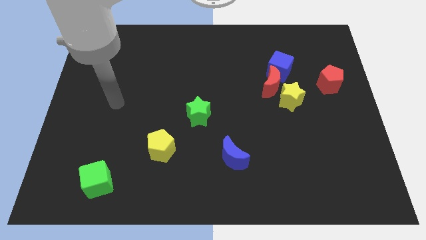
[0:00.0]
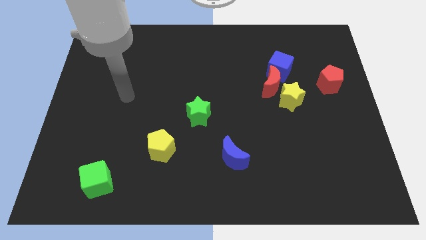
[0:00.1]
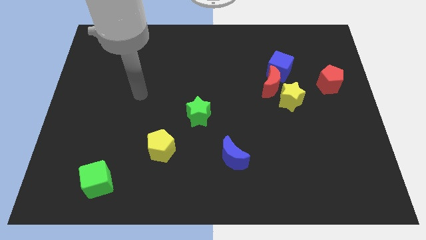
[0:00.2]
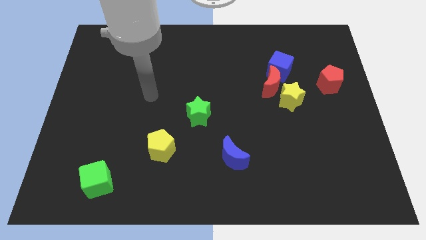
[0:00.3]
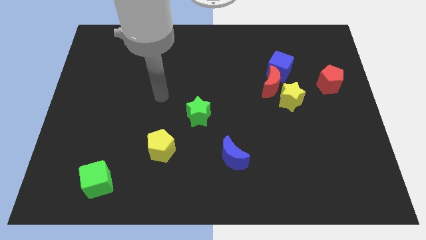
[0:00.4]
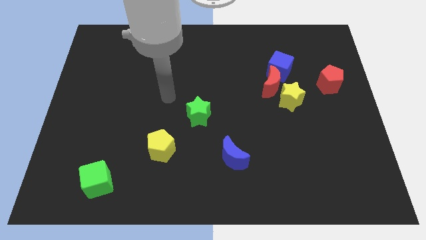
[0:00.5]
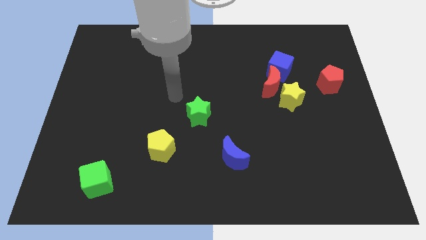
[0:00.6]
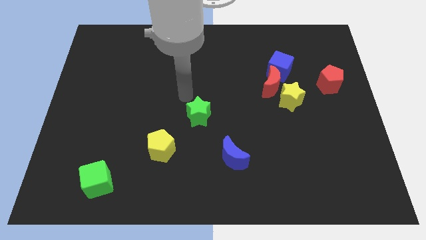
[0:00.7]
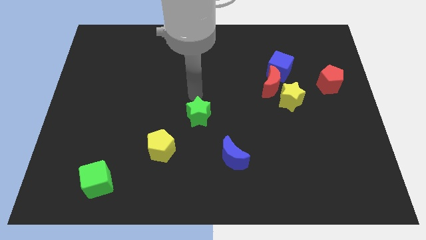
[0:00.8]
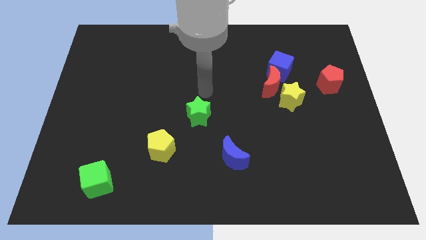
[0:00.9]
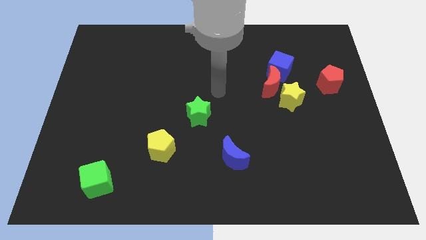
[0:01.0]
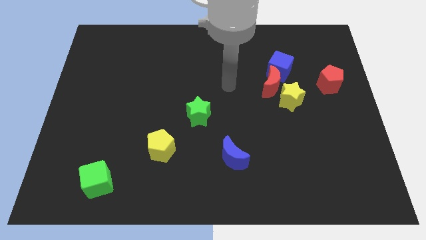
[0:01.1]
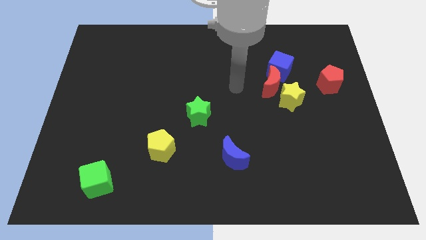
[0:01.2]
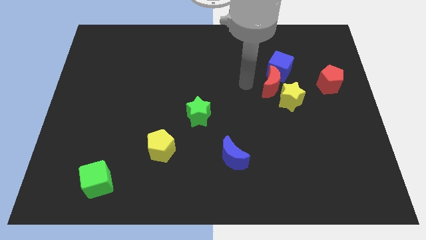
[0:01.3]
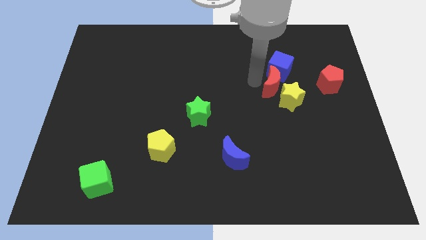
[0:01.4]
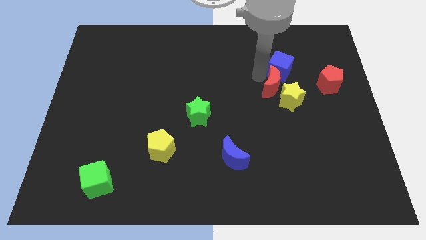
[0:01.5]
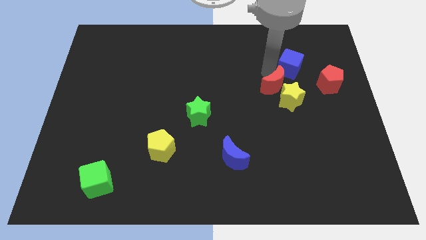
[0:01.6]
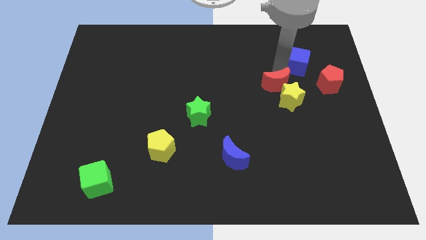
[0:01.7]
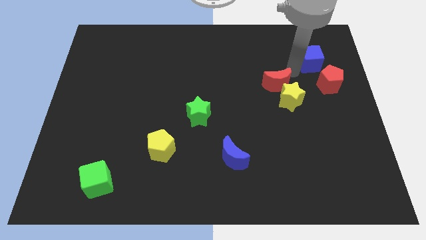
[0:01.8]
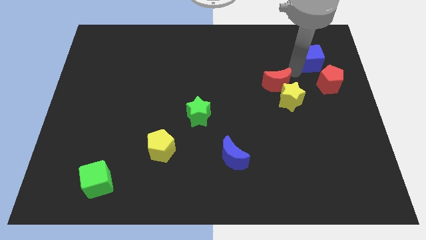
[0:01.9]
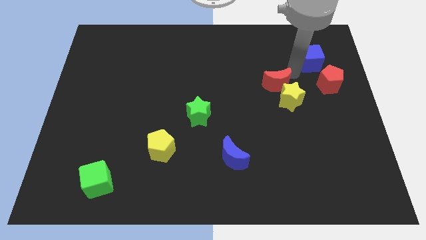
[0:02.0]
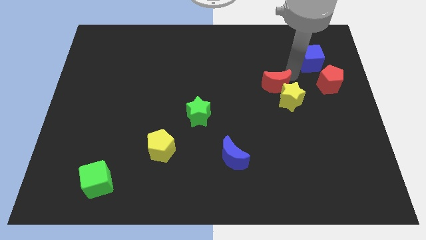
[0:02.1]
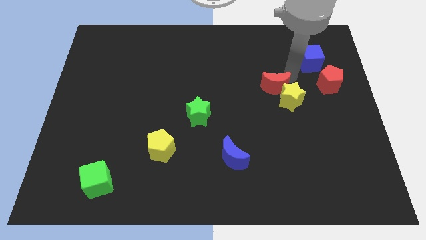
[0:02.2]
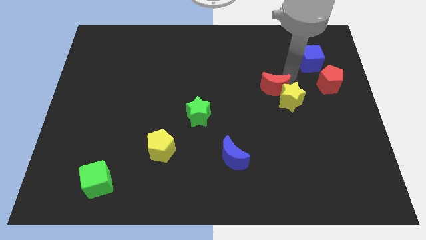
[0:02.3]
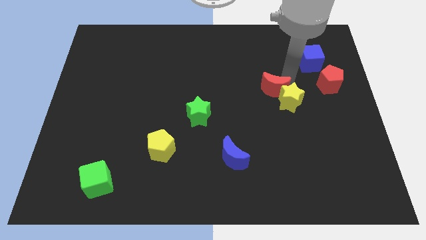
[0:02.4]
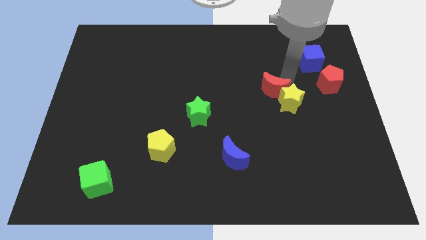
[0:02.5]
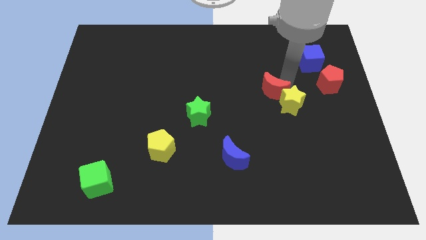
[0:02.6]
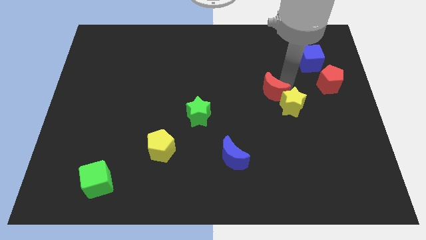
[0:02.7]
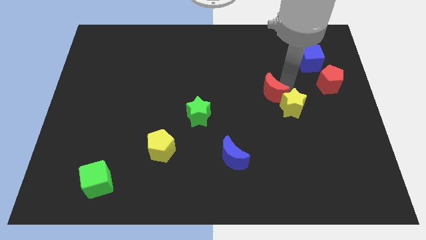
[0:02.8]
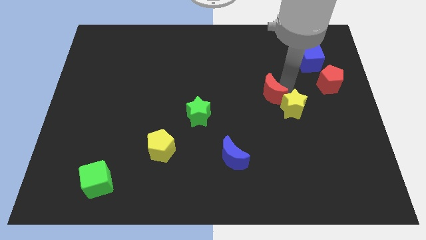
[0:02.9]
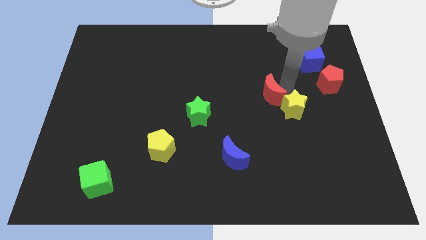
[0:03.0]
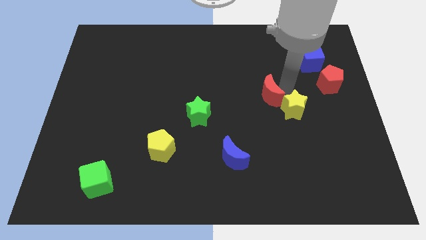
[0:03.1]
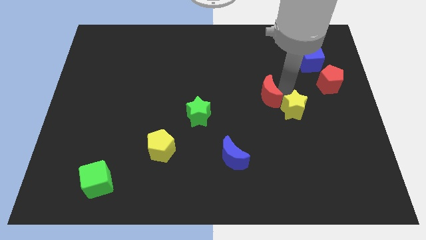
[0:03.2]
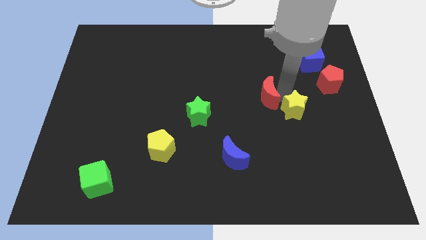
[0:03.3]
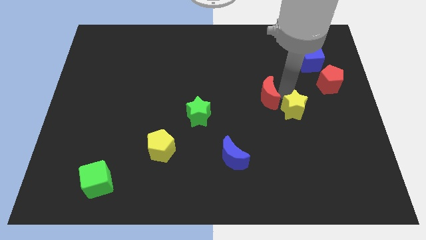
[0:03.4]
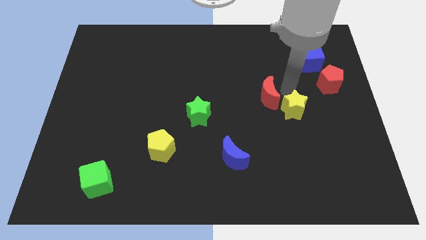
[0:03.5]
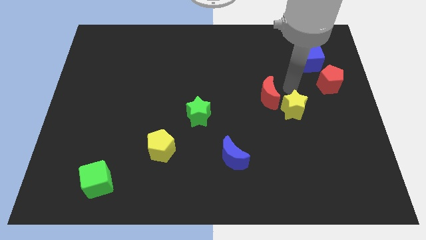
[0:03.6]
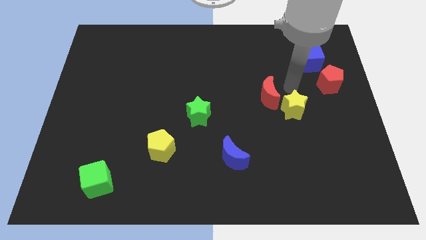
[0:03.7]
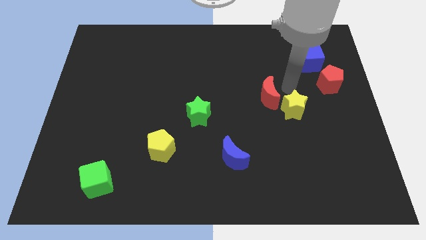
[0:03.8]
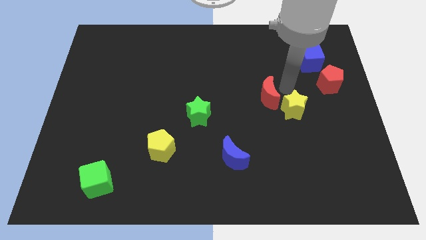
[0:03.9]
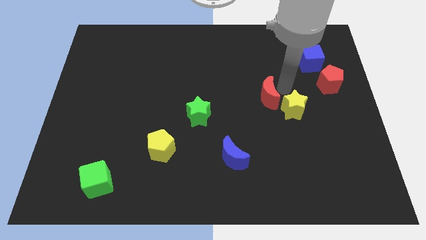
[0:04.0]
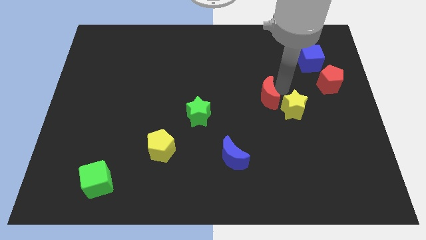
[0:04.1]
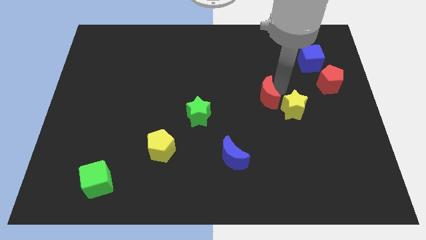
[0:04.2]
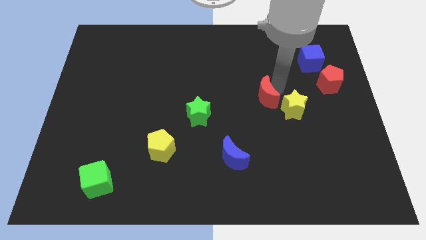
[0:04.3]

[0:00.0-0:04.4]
move the red moon away from the yellow star and blue cube

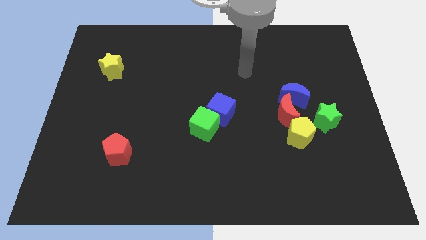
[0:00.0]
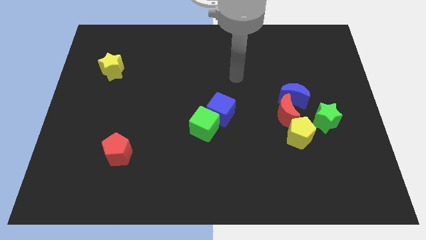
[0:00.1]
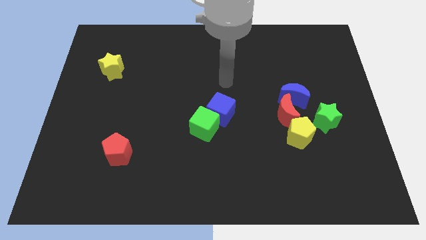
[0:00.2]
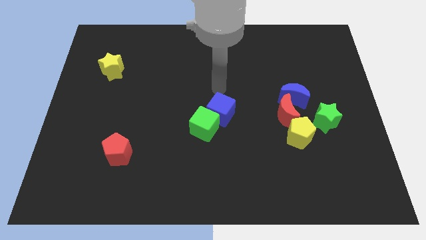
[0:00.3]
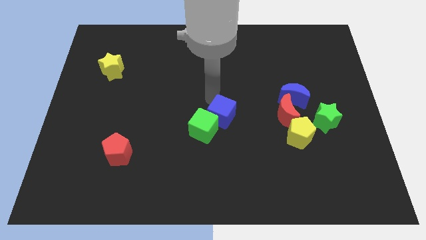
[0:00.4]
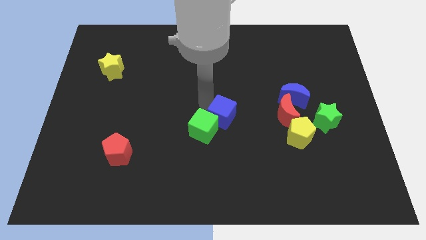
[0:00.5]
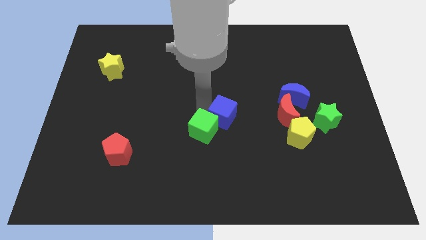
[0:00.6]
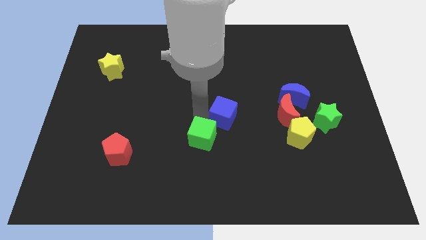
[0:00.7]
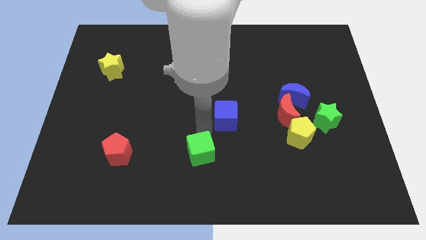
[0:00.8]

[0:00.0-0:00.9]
move the blue cube away from the green cube

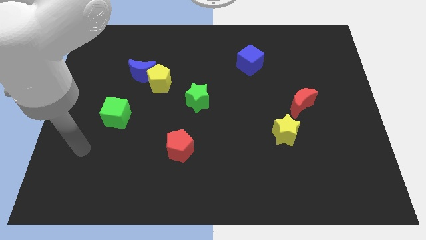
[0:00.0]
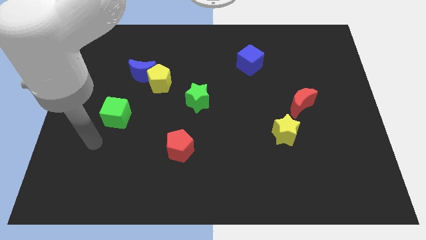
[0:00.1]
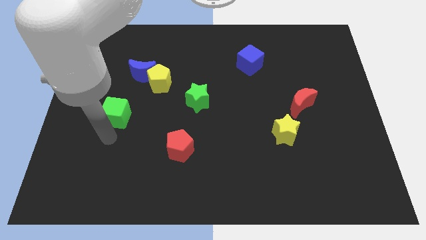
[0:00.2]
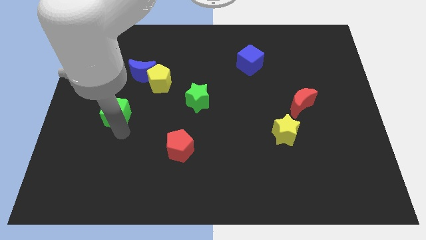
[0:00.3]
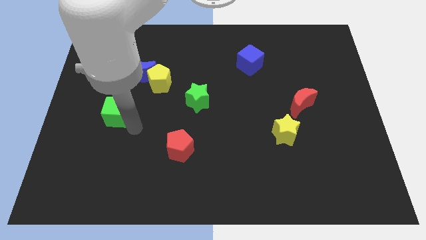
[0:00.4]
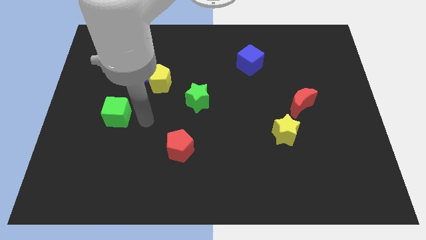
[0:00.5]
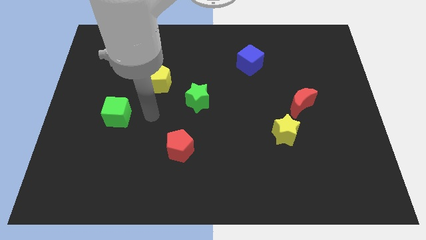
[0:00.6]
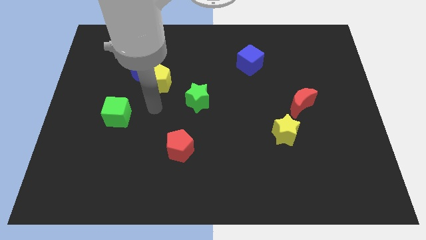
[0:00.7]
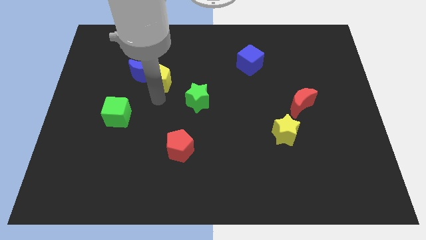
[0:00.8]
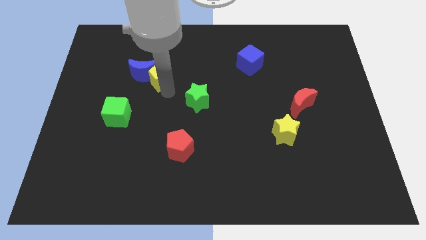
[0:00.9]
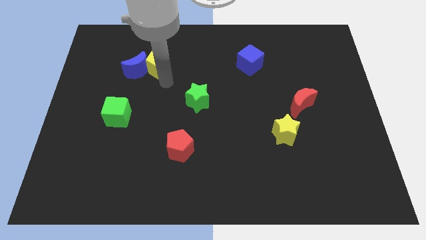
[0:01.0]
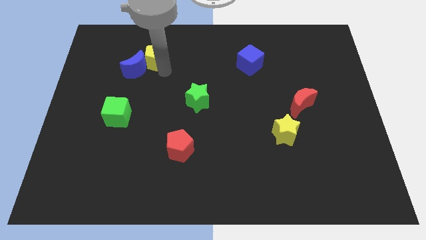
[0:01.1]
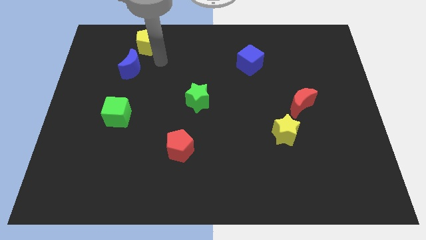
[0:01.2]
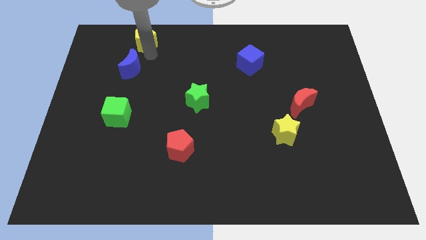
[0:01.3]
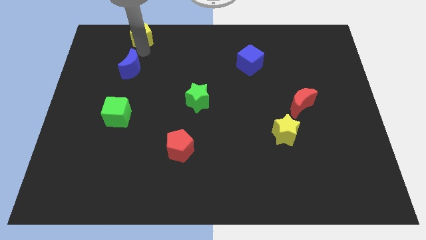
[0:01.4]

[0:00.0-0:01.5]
move the blue moon away from the yellow pentagon

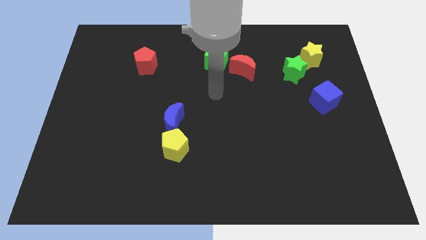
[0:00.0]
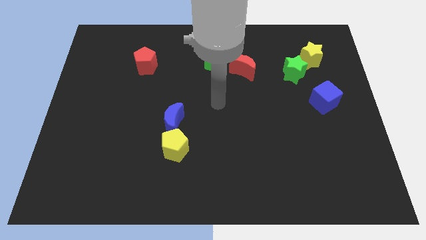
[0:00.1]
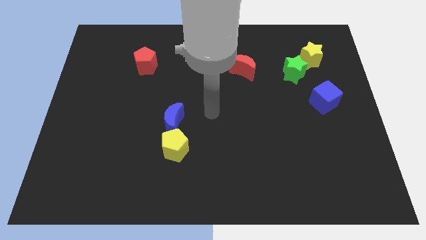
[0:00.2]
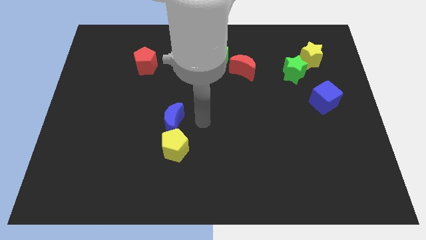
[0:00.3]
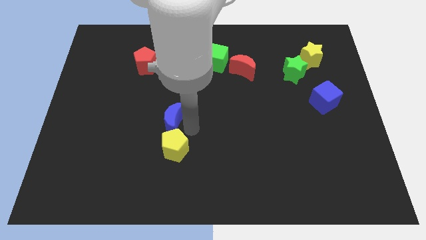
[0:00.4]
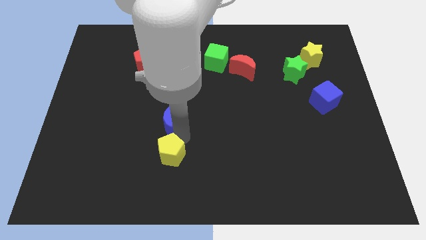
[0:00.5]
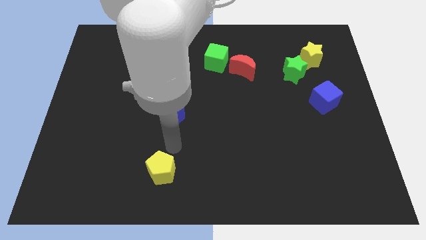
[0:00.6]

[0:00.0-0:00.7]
pull the blue moon apart from the yellow pentagon

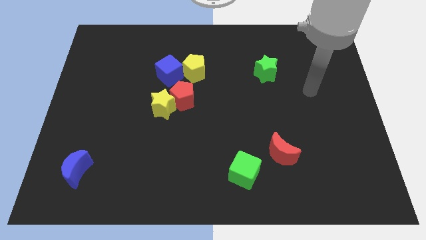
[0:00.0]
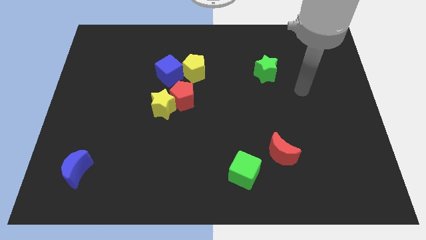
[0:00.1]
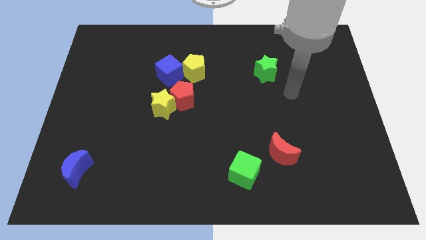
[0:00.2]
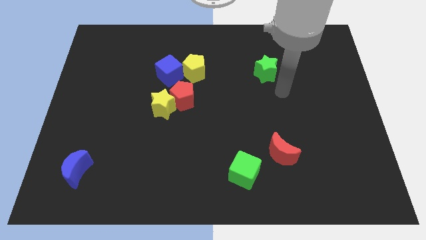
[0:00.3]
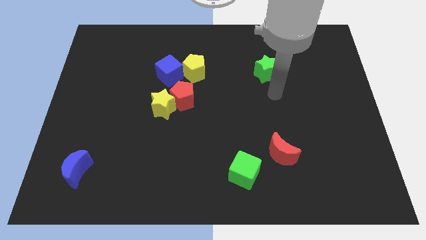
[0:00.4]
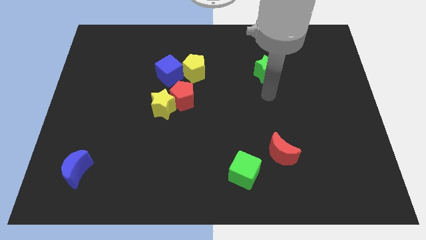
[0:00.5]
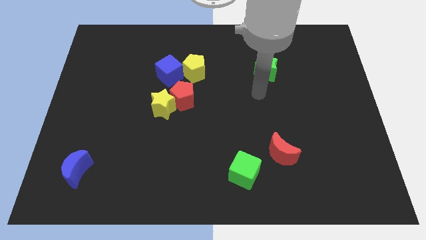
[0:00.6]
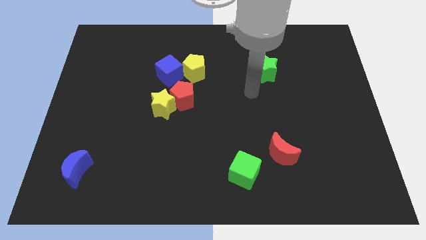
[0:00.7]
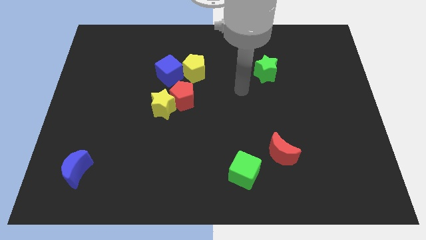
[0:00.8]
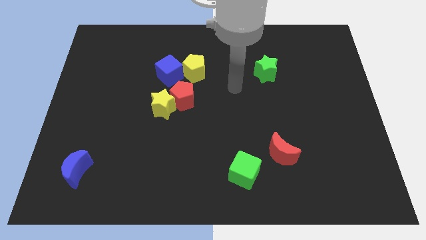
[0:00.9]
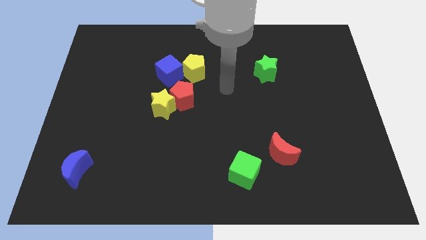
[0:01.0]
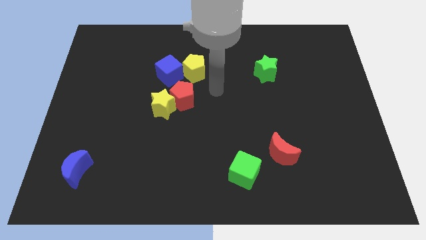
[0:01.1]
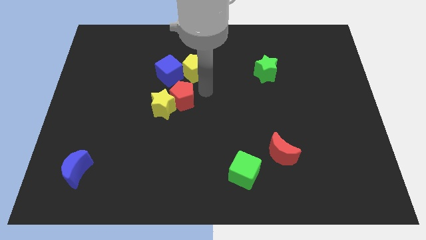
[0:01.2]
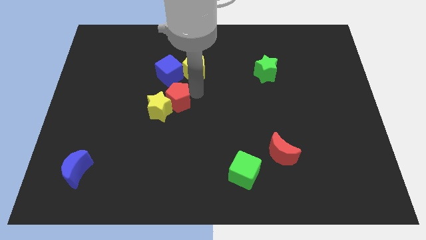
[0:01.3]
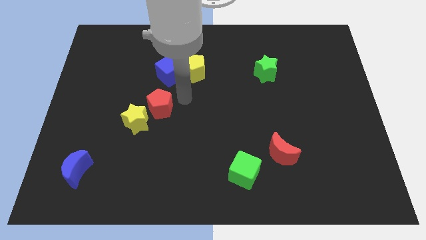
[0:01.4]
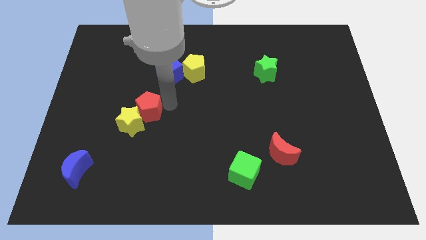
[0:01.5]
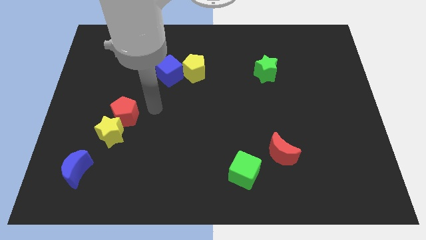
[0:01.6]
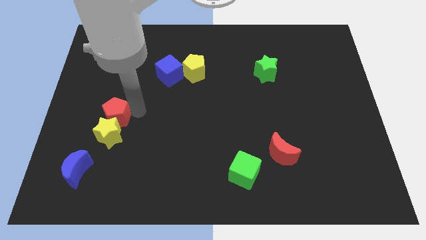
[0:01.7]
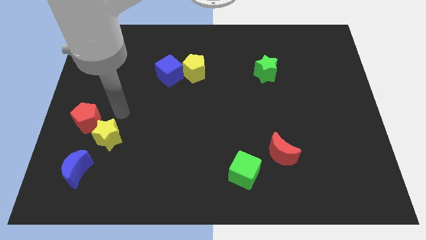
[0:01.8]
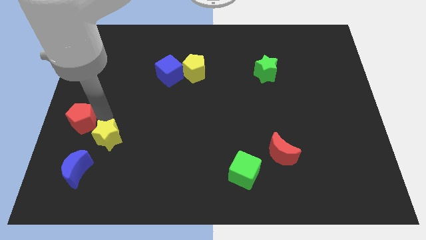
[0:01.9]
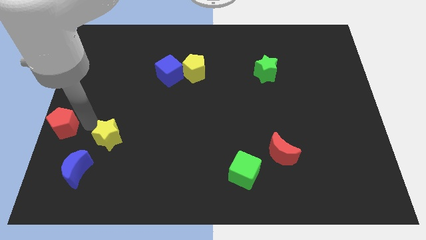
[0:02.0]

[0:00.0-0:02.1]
move the yellow star away from the red pentagon
